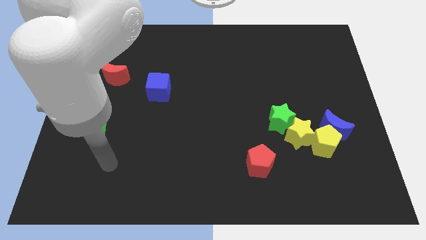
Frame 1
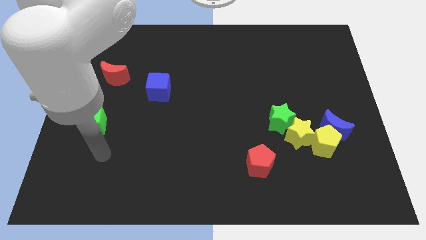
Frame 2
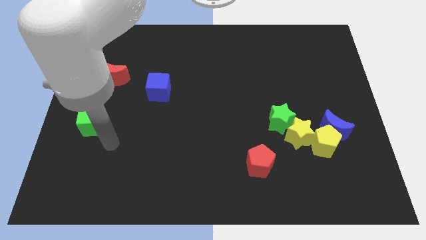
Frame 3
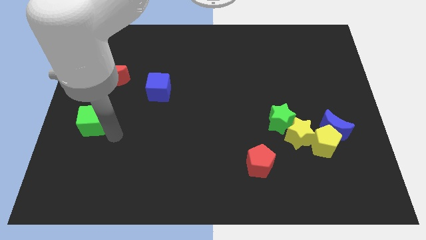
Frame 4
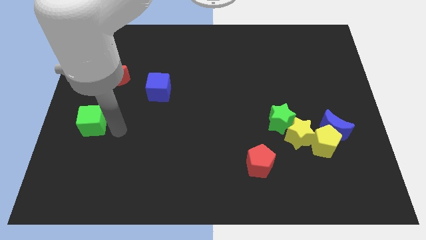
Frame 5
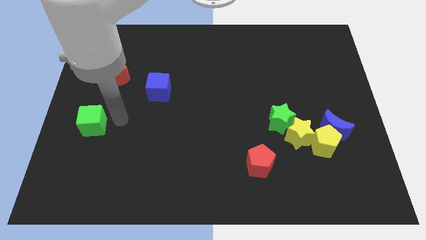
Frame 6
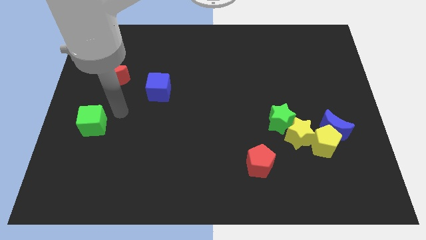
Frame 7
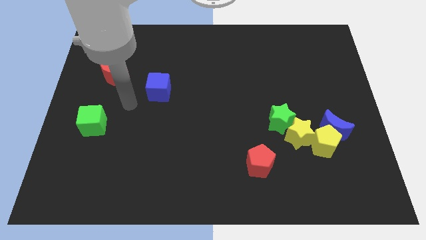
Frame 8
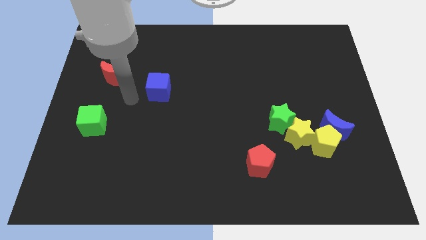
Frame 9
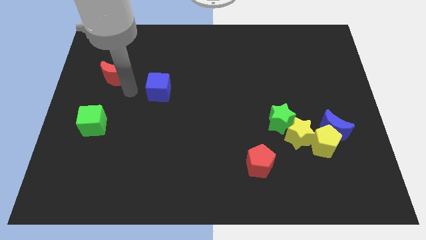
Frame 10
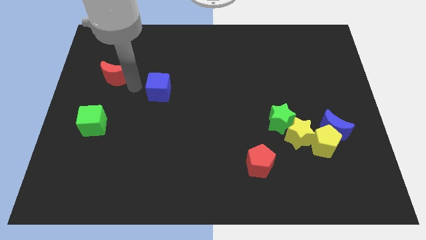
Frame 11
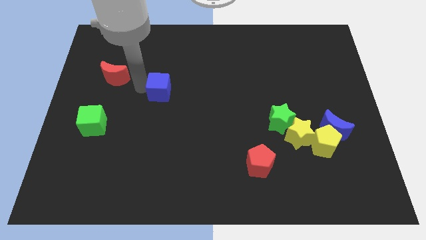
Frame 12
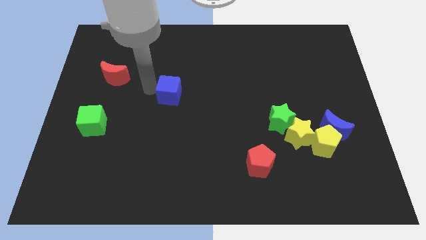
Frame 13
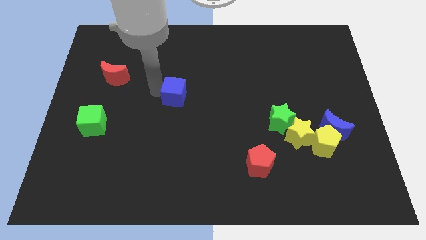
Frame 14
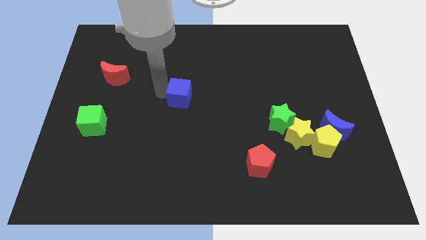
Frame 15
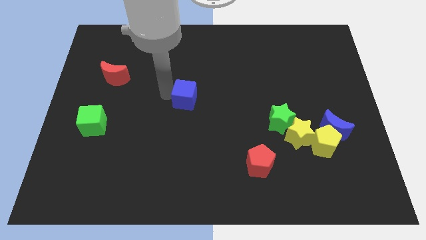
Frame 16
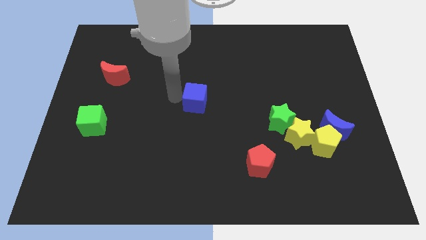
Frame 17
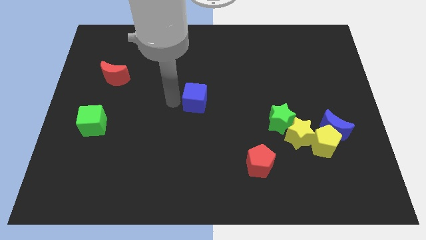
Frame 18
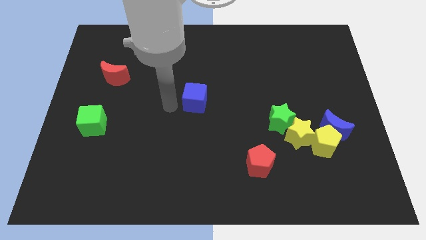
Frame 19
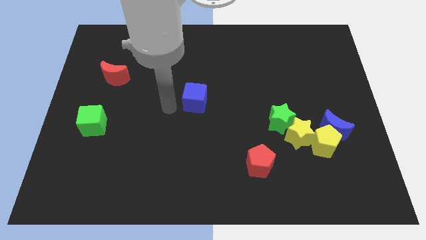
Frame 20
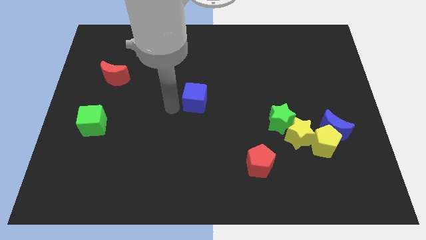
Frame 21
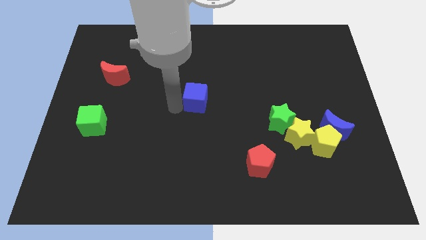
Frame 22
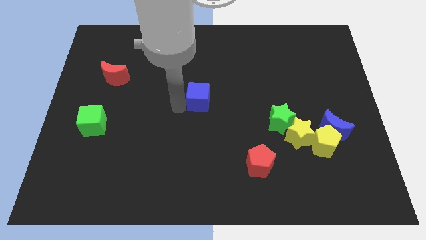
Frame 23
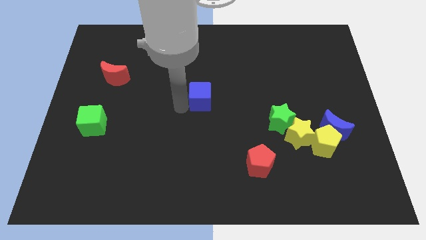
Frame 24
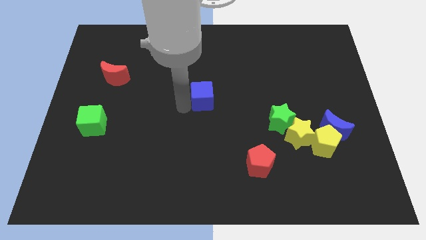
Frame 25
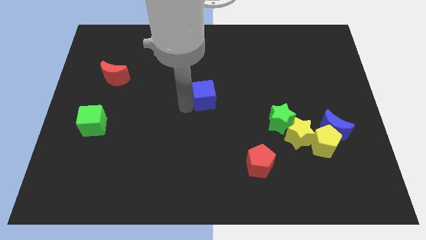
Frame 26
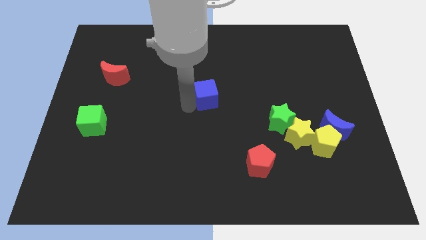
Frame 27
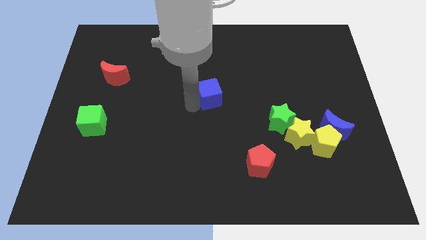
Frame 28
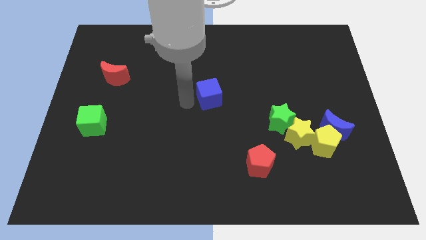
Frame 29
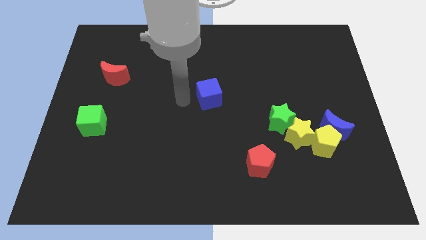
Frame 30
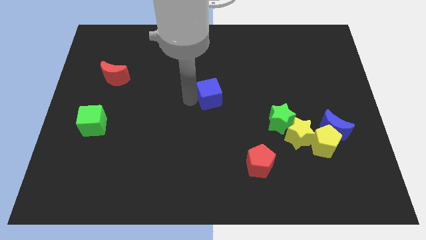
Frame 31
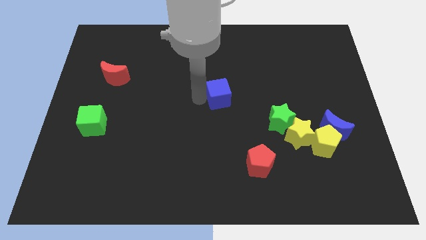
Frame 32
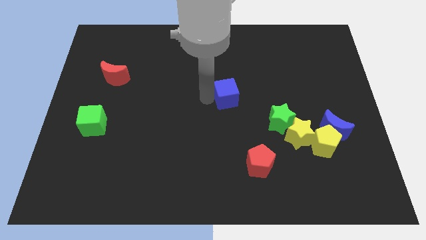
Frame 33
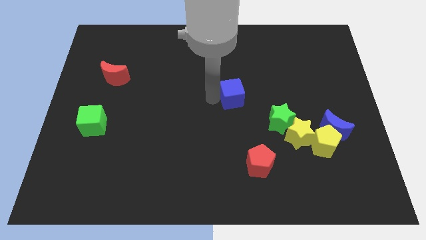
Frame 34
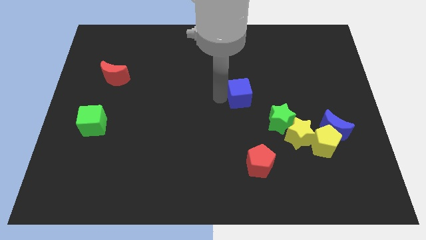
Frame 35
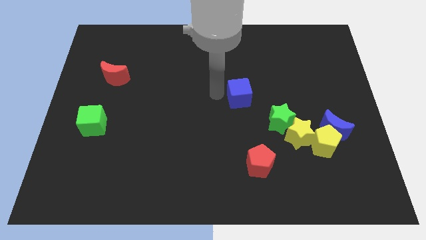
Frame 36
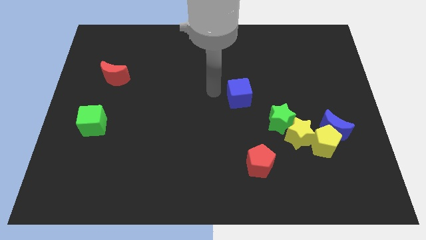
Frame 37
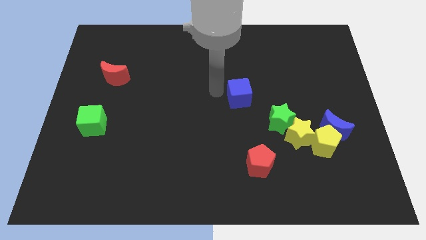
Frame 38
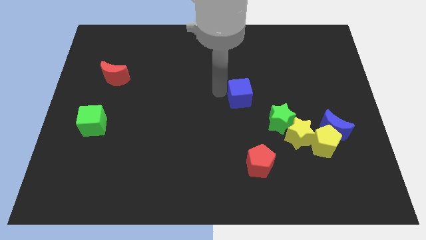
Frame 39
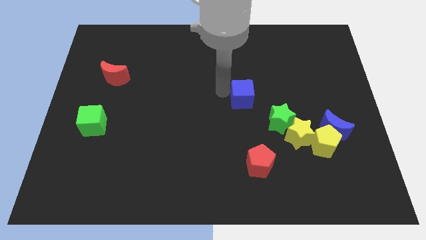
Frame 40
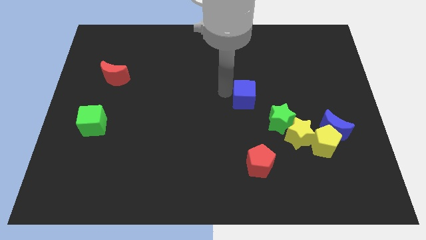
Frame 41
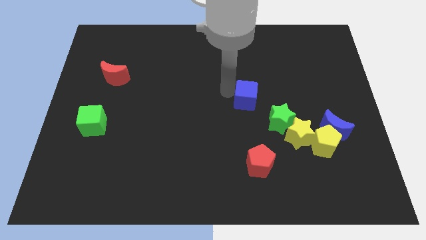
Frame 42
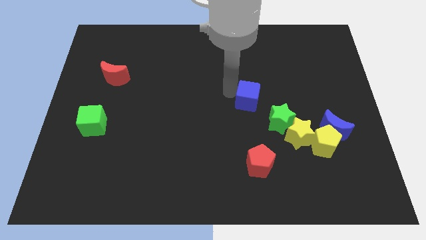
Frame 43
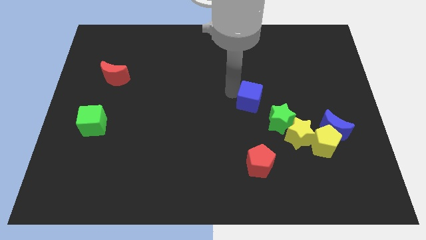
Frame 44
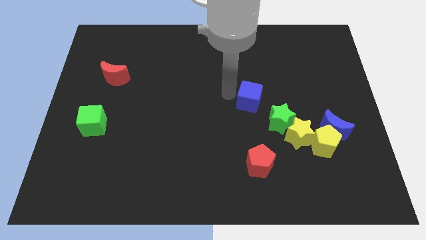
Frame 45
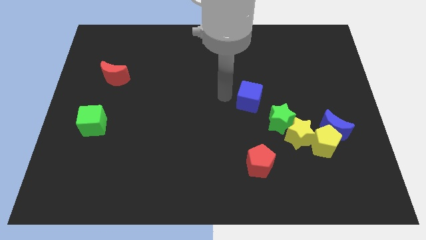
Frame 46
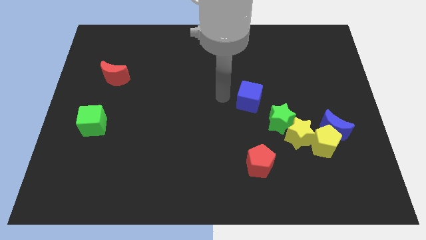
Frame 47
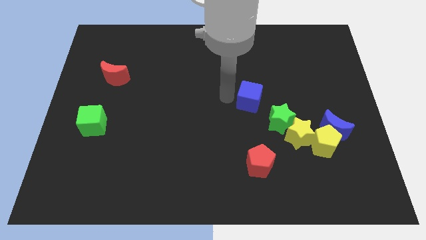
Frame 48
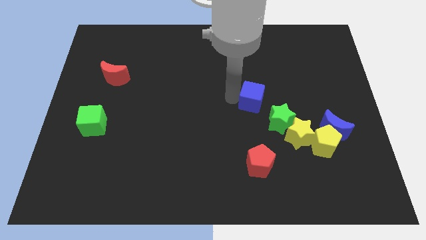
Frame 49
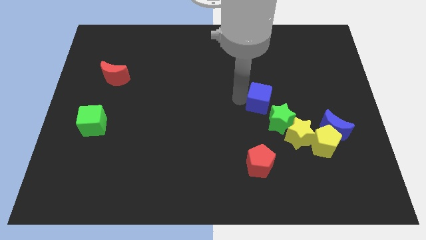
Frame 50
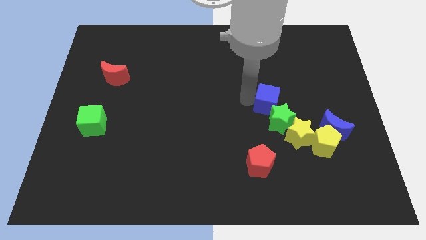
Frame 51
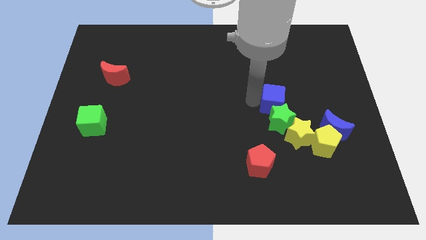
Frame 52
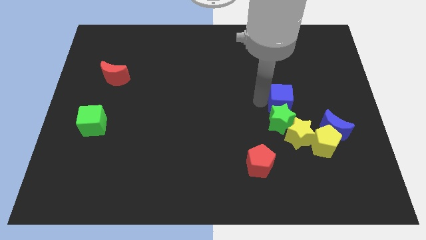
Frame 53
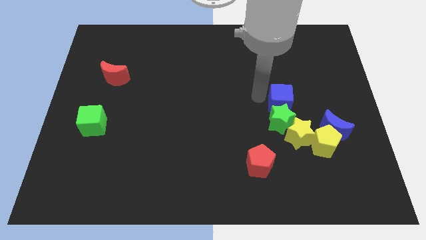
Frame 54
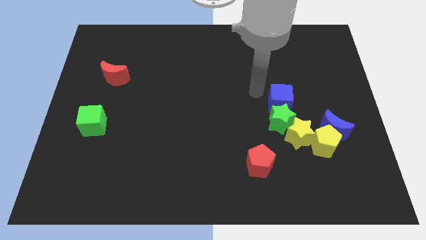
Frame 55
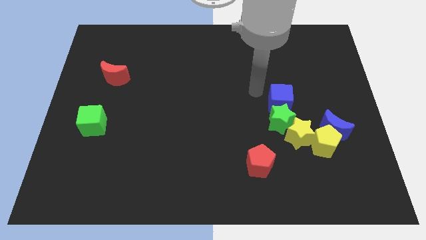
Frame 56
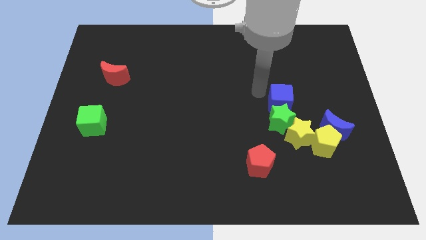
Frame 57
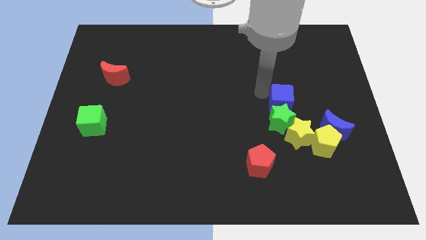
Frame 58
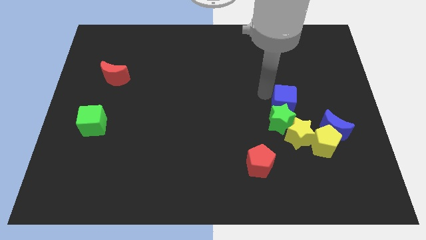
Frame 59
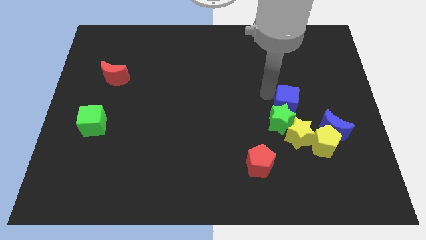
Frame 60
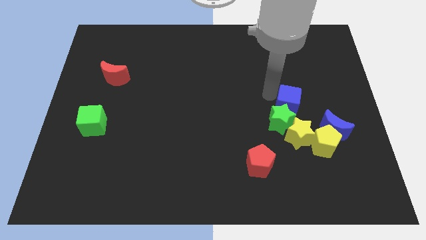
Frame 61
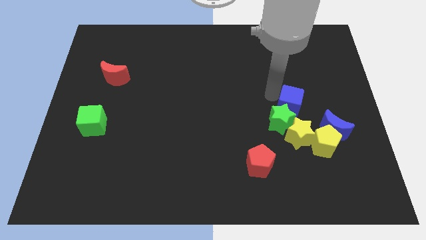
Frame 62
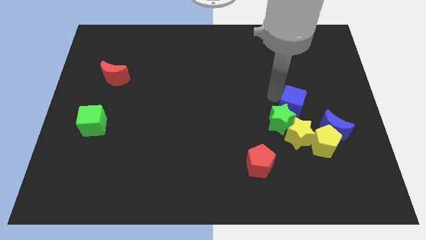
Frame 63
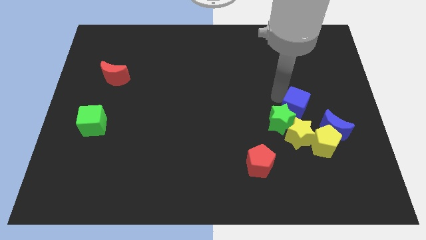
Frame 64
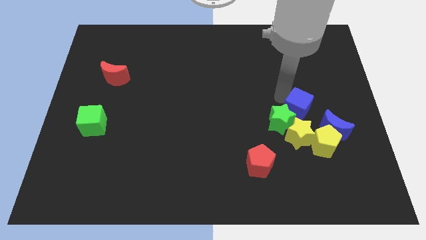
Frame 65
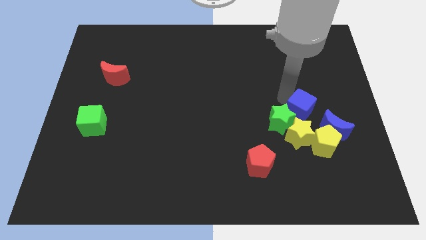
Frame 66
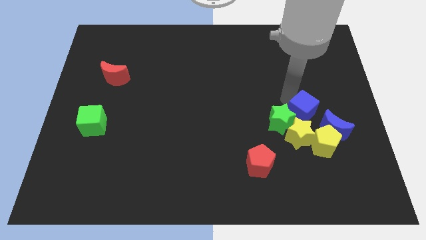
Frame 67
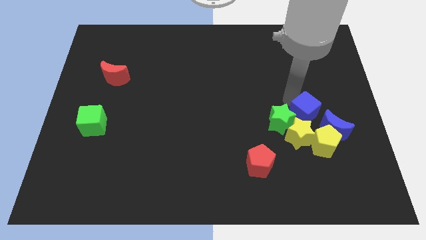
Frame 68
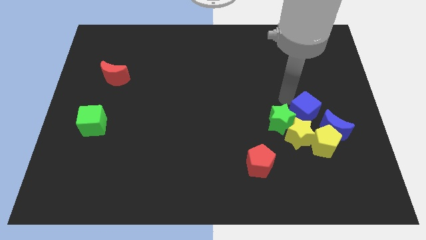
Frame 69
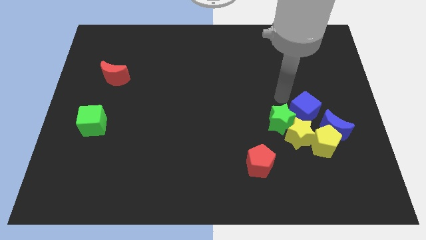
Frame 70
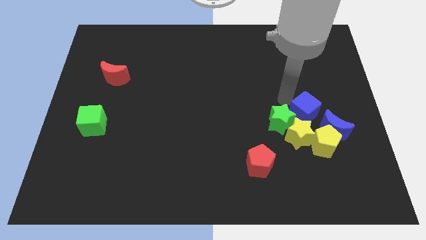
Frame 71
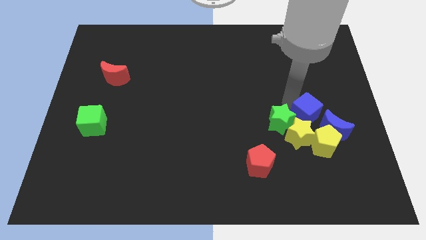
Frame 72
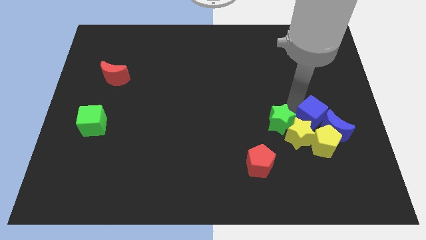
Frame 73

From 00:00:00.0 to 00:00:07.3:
put the blue cube towards the blue moon
